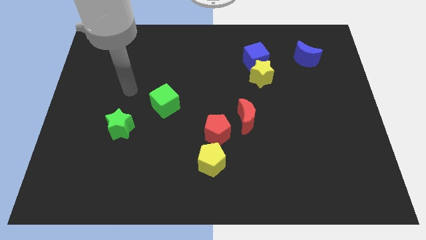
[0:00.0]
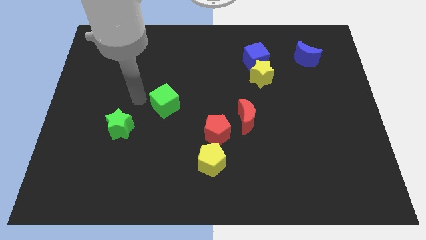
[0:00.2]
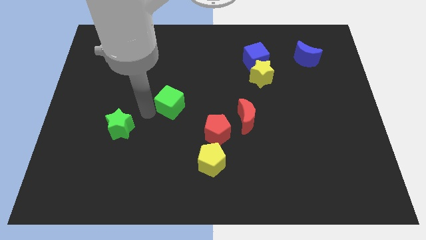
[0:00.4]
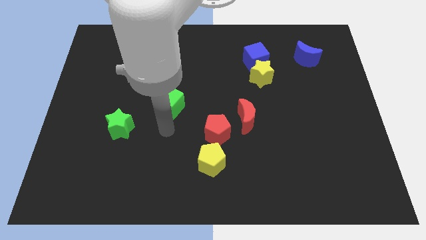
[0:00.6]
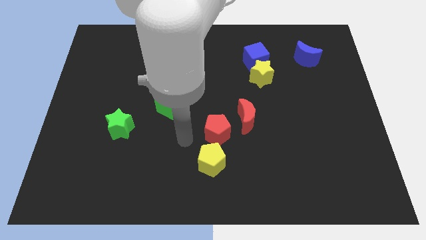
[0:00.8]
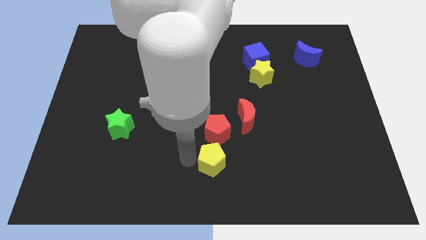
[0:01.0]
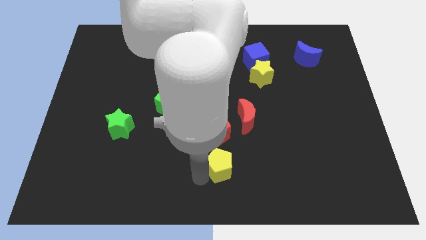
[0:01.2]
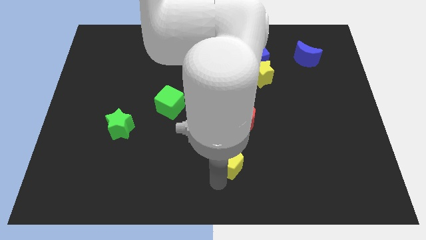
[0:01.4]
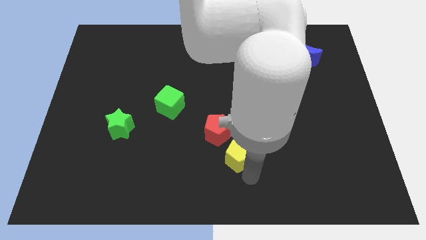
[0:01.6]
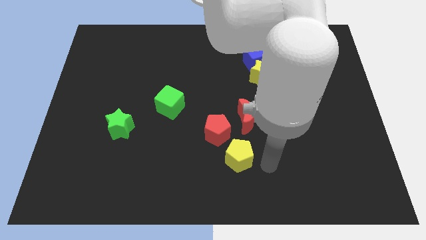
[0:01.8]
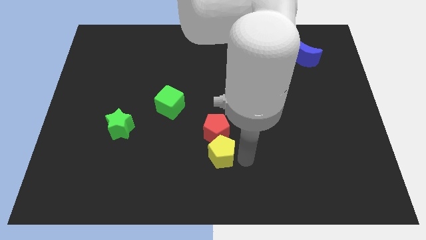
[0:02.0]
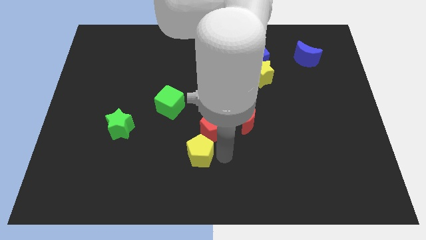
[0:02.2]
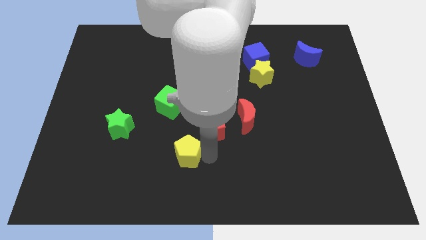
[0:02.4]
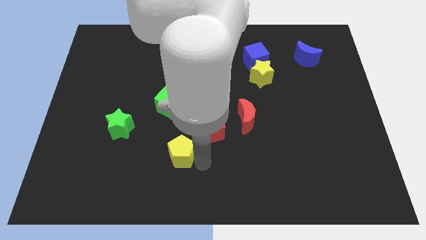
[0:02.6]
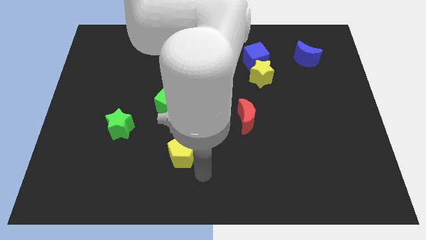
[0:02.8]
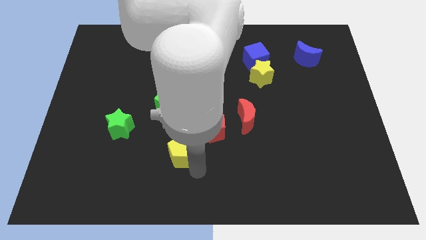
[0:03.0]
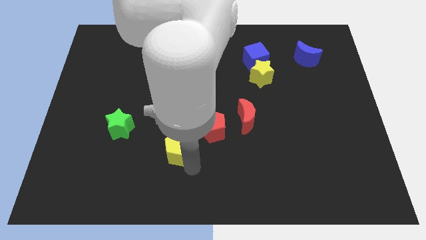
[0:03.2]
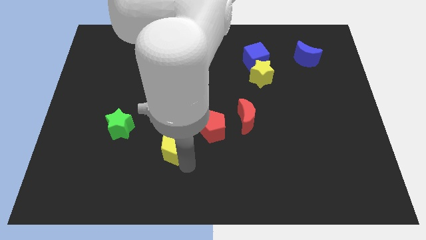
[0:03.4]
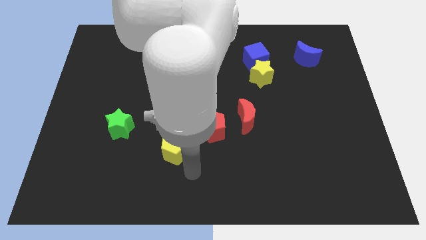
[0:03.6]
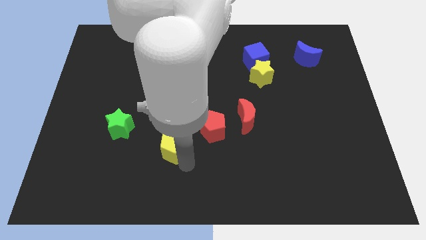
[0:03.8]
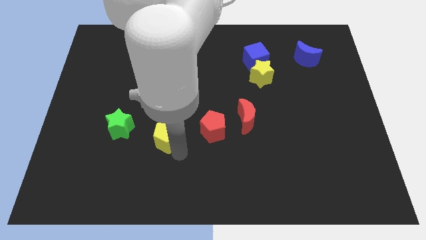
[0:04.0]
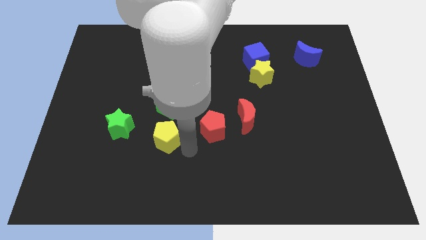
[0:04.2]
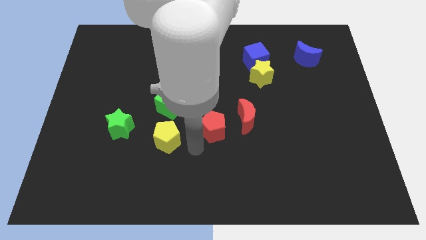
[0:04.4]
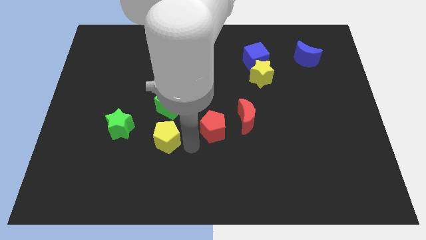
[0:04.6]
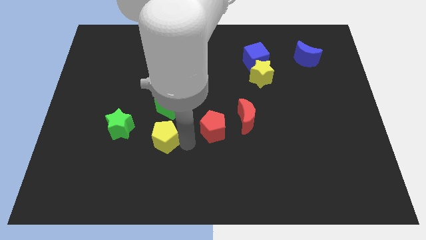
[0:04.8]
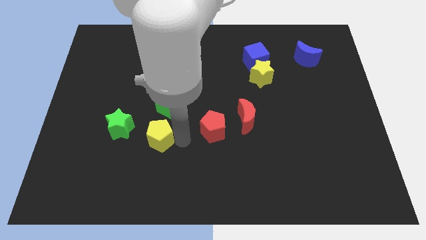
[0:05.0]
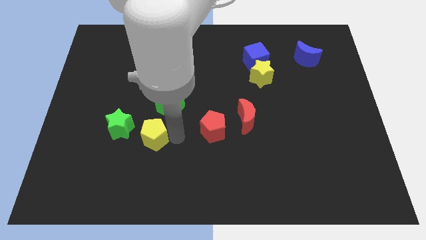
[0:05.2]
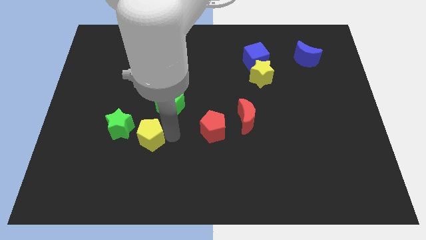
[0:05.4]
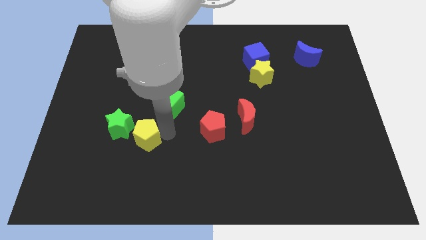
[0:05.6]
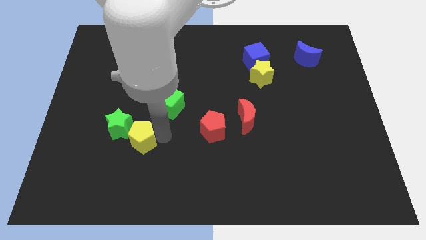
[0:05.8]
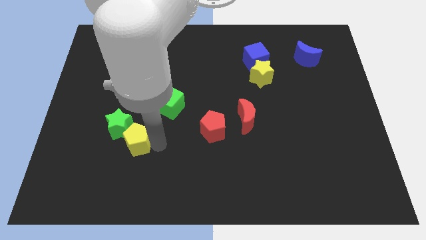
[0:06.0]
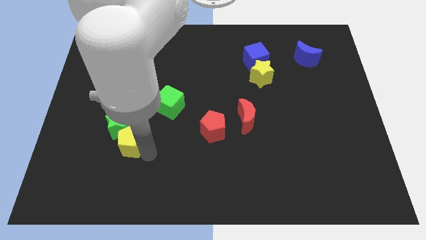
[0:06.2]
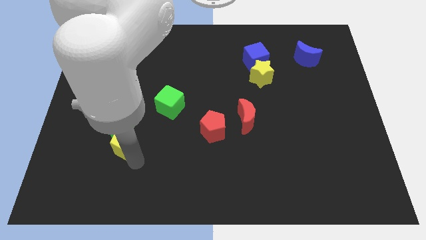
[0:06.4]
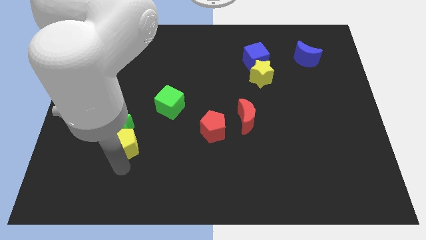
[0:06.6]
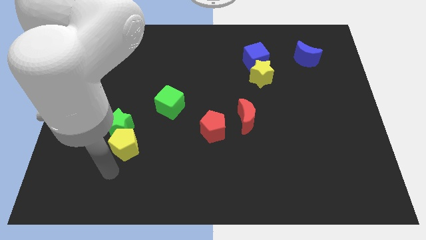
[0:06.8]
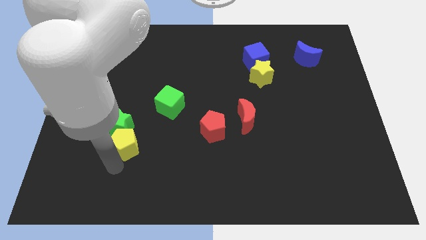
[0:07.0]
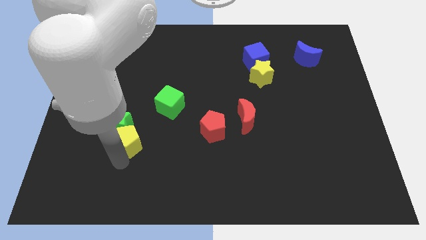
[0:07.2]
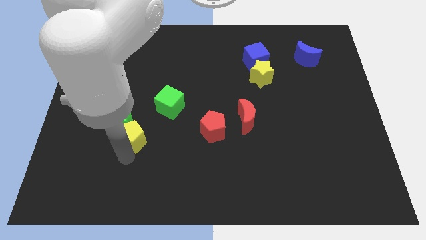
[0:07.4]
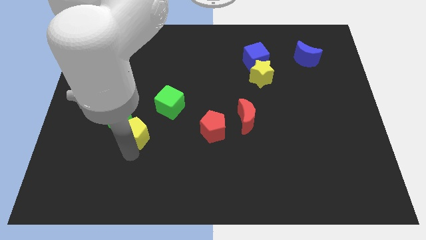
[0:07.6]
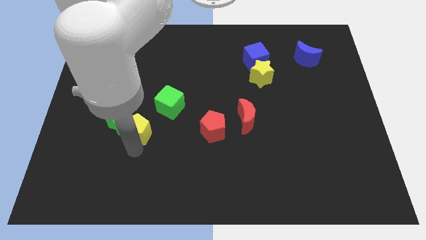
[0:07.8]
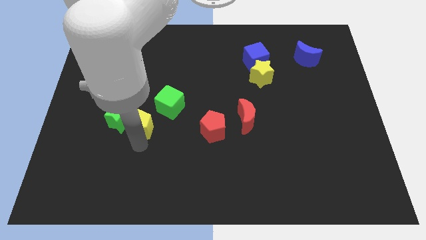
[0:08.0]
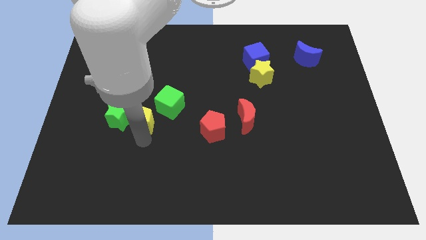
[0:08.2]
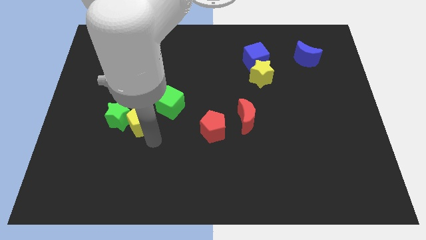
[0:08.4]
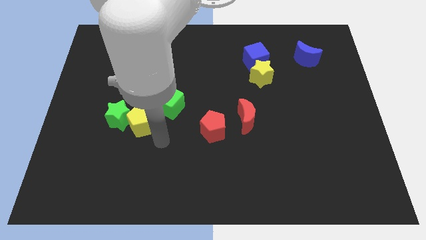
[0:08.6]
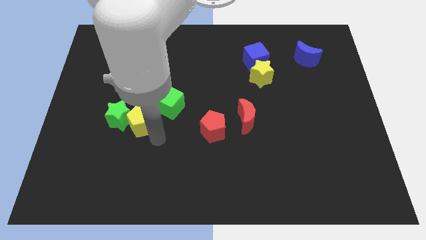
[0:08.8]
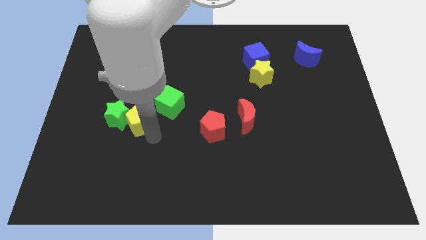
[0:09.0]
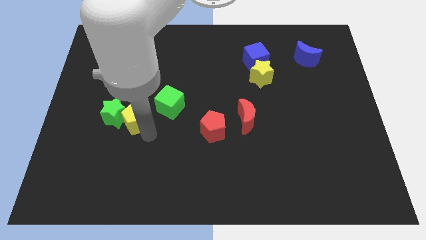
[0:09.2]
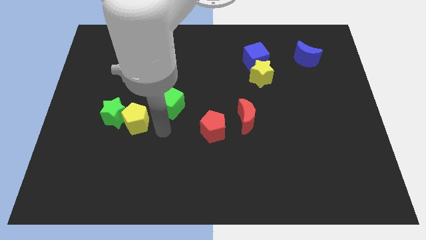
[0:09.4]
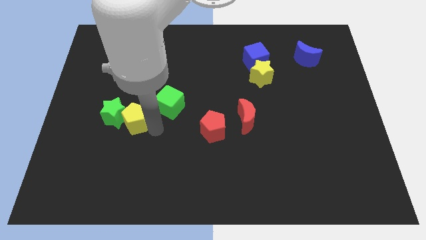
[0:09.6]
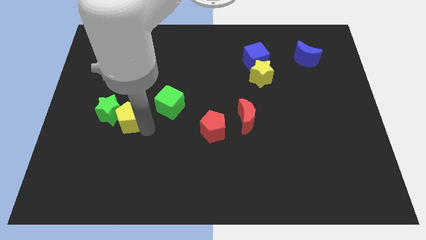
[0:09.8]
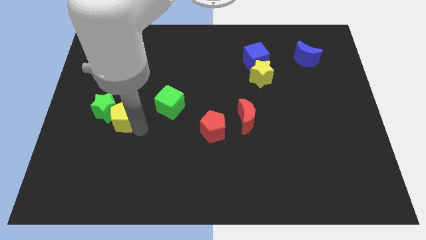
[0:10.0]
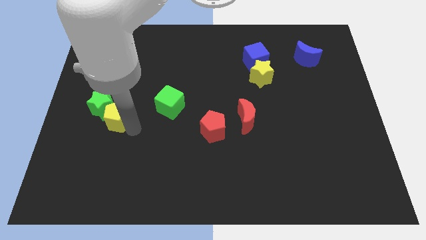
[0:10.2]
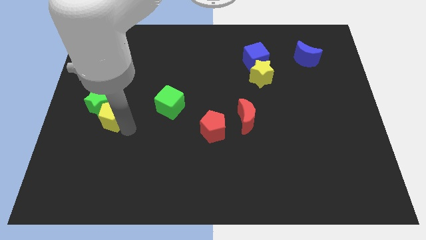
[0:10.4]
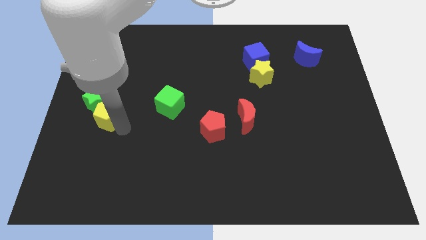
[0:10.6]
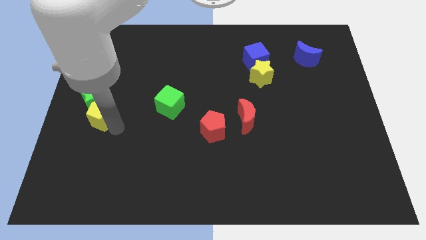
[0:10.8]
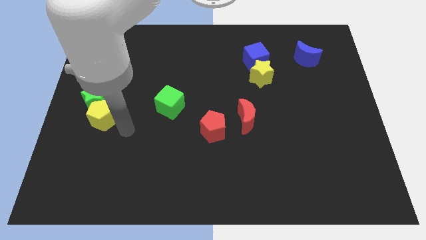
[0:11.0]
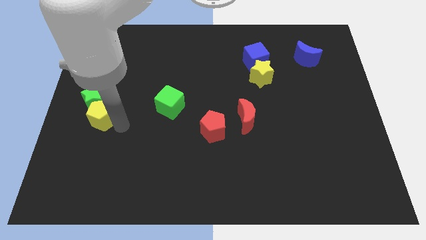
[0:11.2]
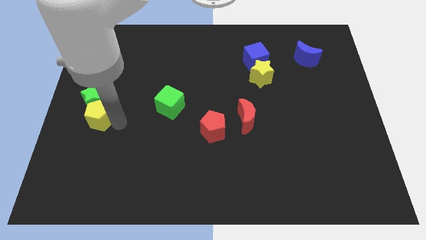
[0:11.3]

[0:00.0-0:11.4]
push the yellow pentagon to the center left
